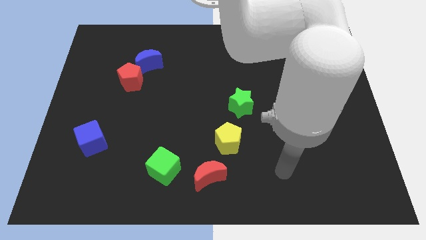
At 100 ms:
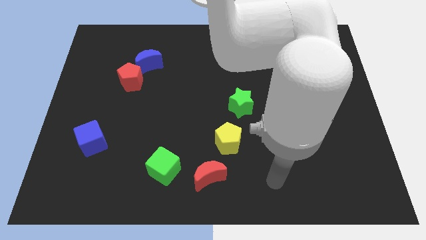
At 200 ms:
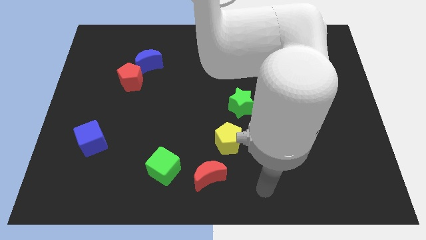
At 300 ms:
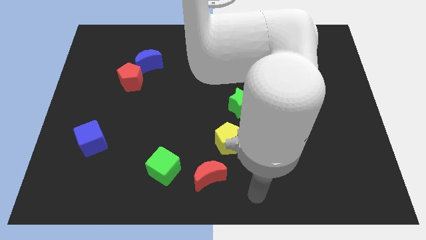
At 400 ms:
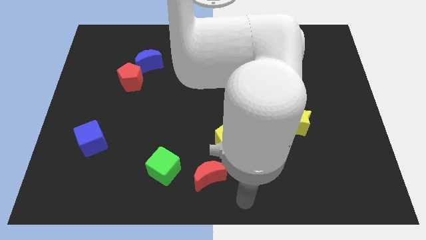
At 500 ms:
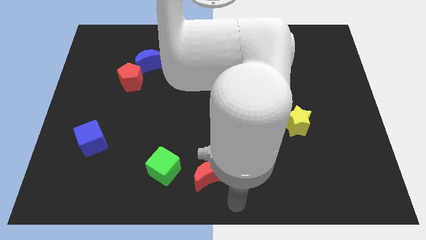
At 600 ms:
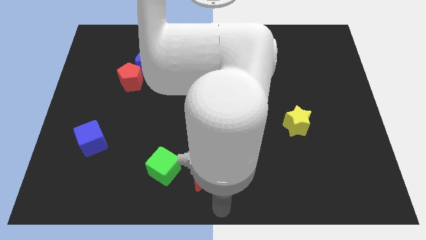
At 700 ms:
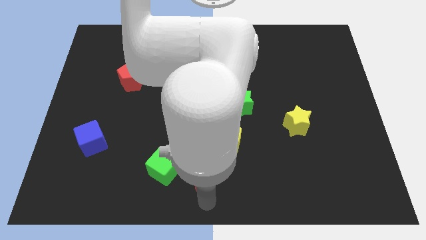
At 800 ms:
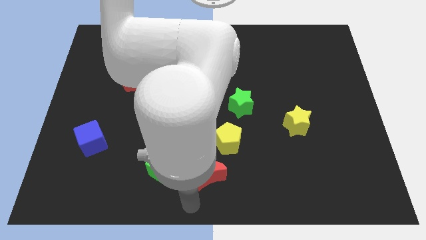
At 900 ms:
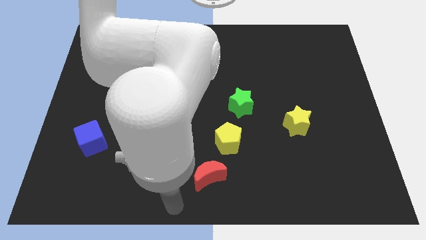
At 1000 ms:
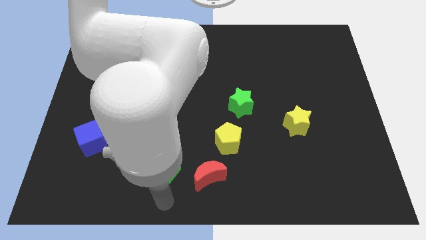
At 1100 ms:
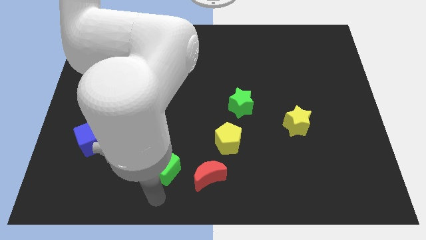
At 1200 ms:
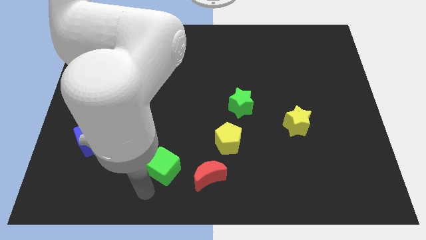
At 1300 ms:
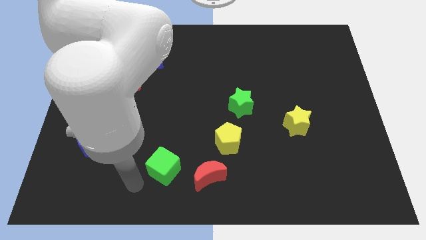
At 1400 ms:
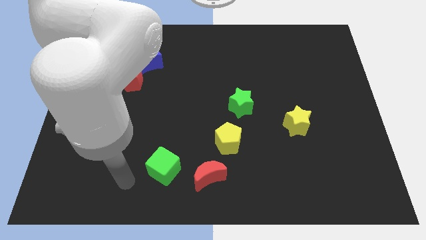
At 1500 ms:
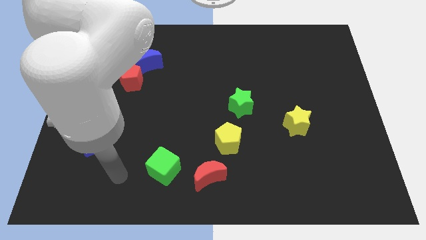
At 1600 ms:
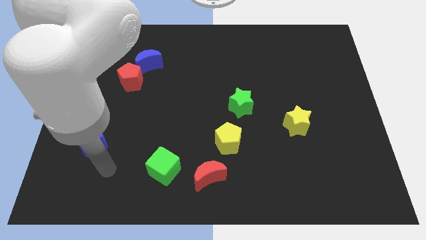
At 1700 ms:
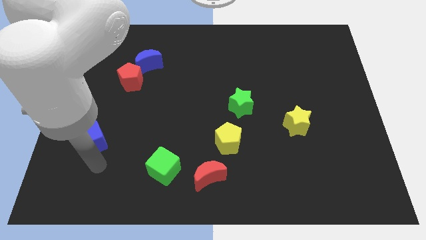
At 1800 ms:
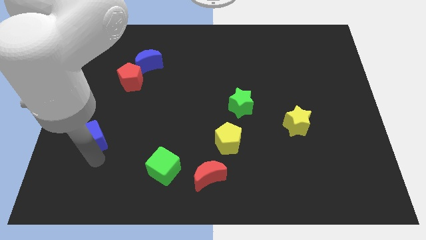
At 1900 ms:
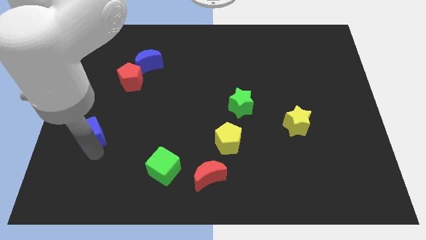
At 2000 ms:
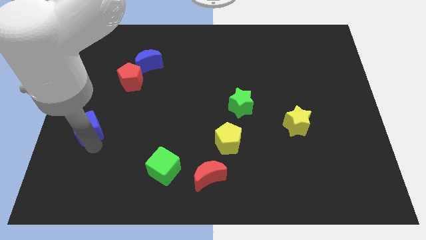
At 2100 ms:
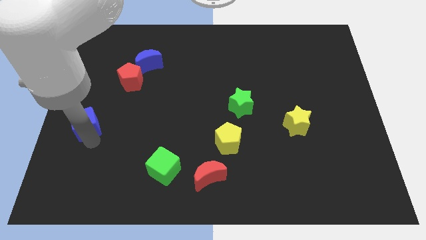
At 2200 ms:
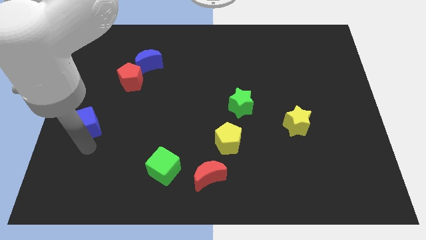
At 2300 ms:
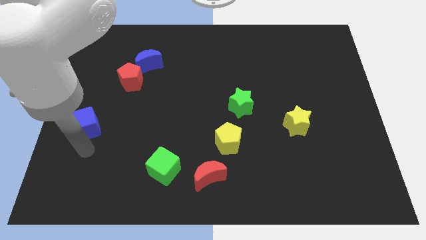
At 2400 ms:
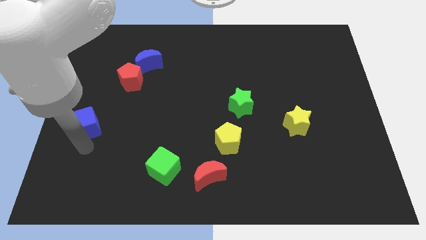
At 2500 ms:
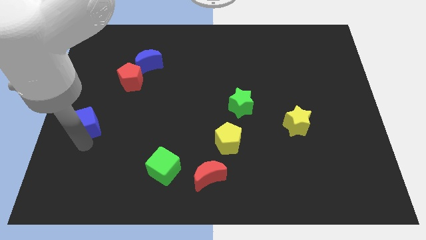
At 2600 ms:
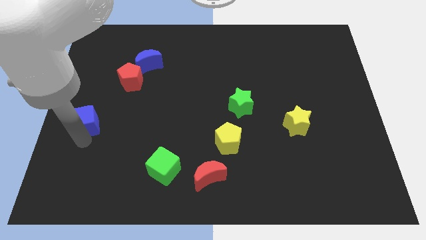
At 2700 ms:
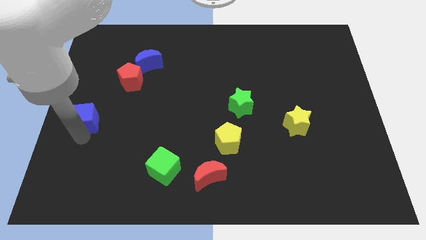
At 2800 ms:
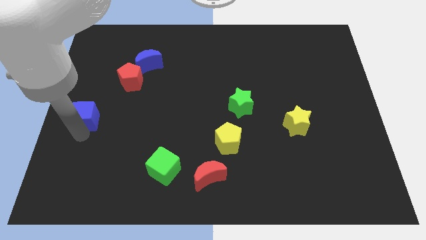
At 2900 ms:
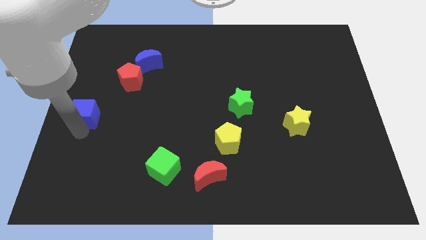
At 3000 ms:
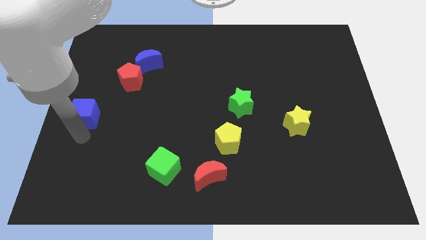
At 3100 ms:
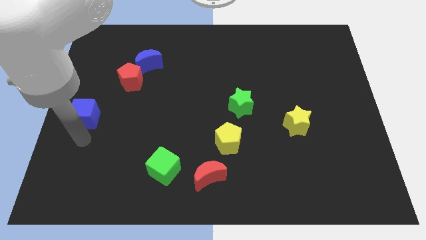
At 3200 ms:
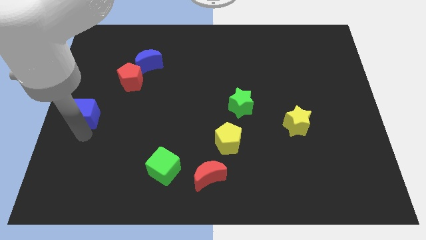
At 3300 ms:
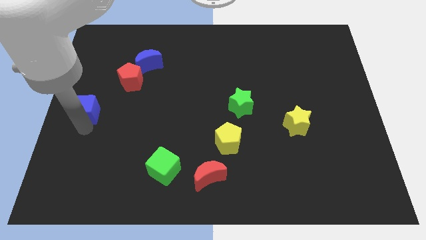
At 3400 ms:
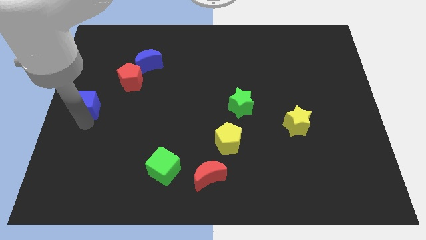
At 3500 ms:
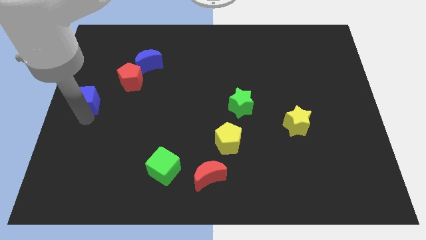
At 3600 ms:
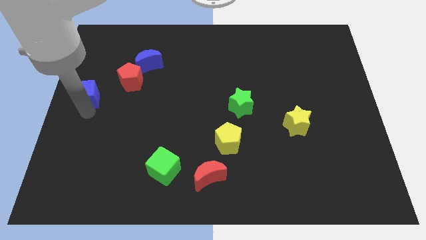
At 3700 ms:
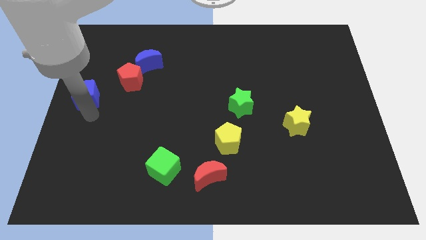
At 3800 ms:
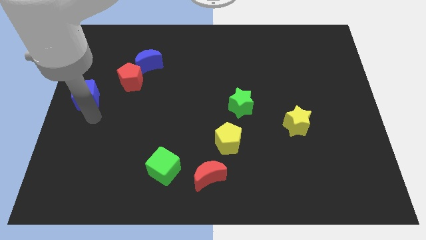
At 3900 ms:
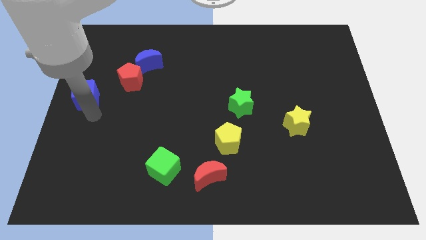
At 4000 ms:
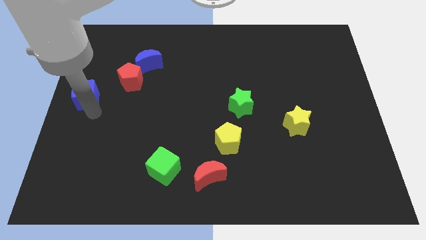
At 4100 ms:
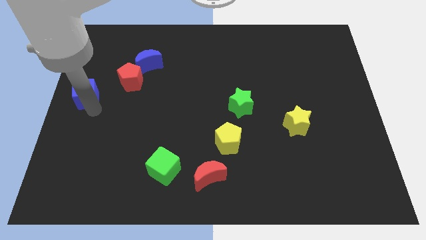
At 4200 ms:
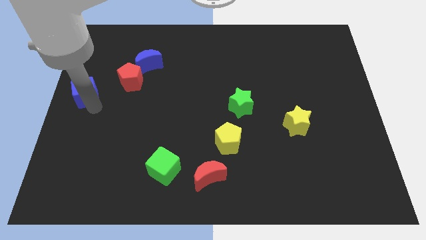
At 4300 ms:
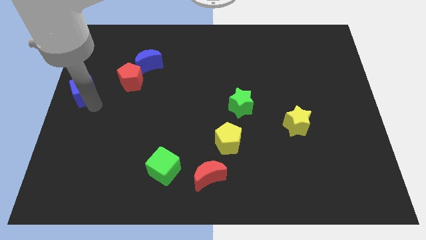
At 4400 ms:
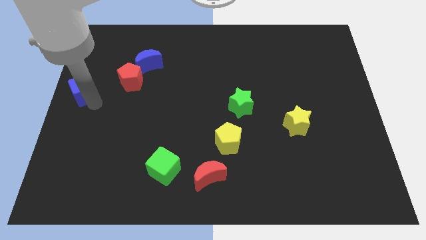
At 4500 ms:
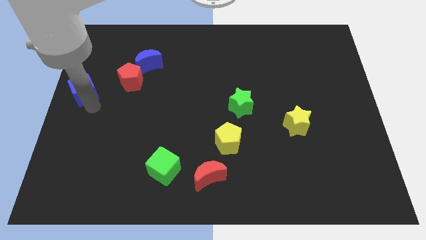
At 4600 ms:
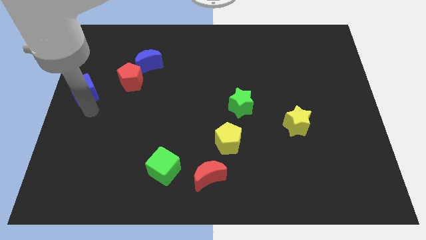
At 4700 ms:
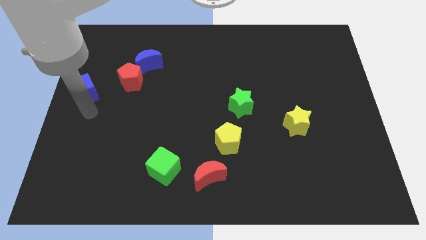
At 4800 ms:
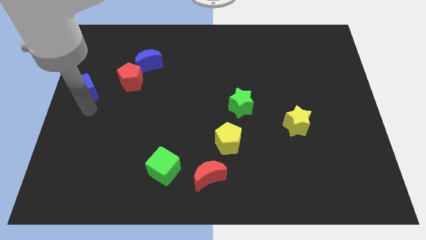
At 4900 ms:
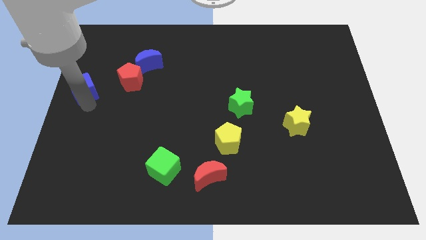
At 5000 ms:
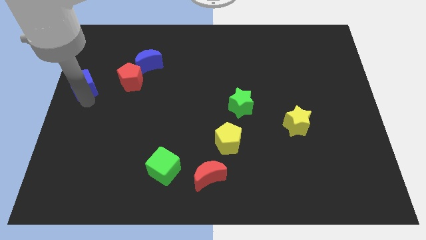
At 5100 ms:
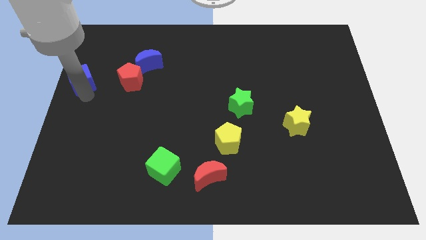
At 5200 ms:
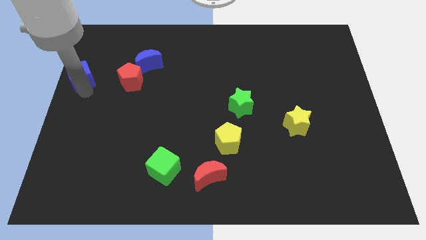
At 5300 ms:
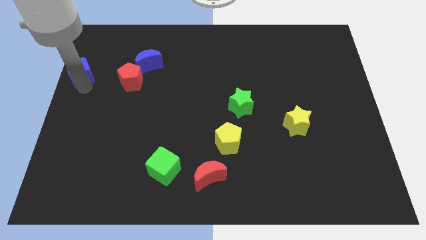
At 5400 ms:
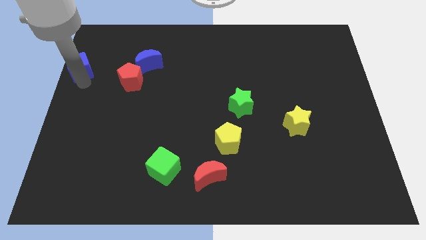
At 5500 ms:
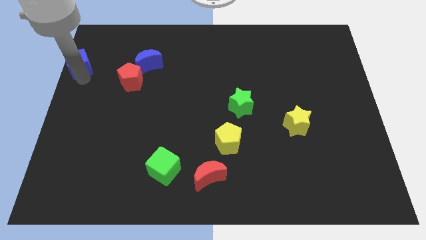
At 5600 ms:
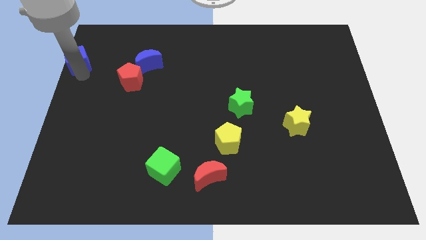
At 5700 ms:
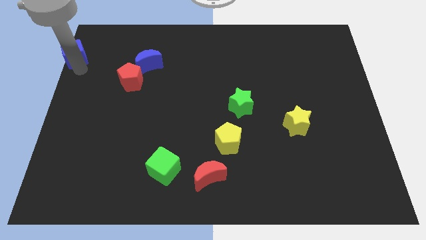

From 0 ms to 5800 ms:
move the blue cube to the upper left corner

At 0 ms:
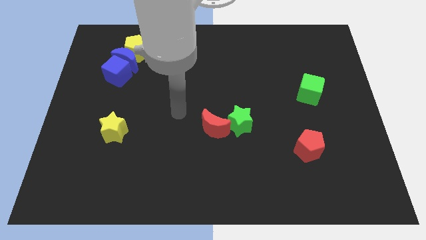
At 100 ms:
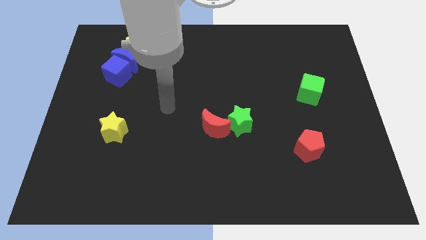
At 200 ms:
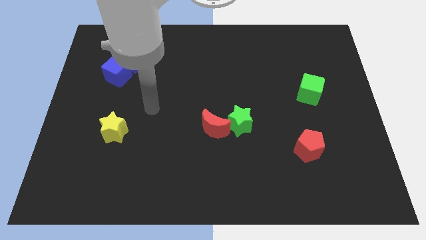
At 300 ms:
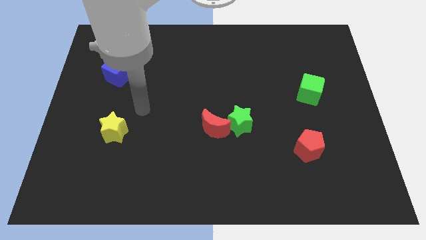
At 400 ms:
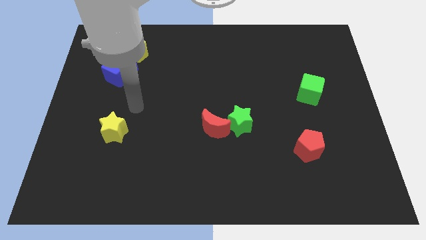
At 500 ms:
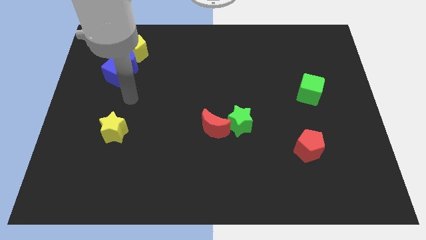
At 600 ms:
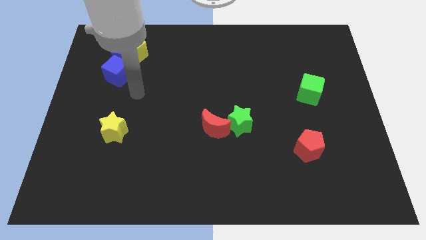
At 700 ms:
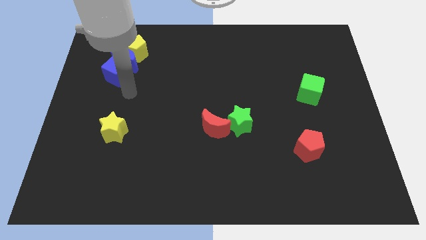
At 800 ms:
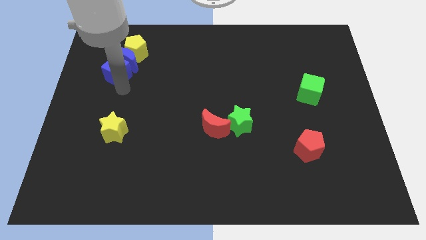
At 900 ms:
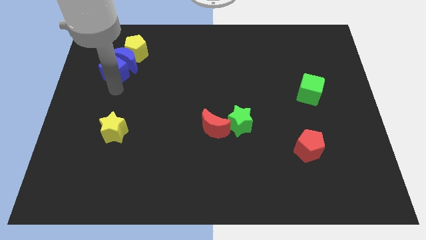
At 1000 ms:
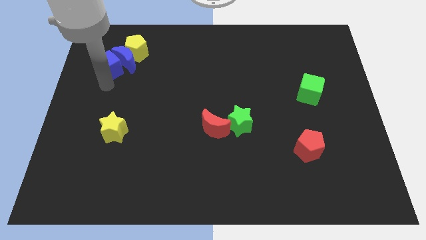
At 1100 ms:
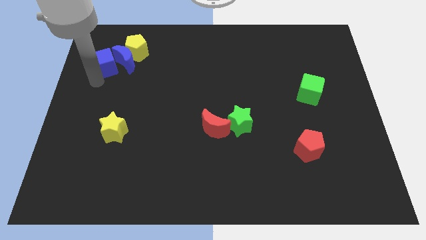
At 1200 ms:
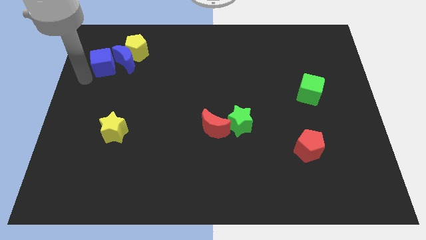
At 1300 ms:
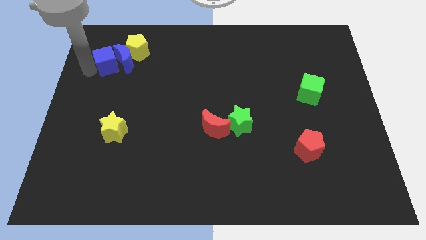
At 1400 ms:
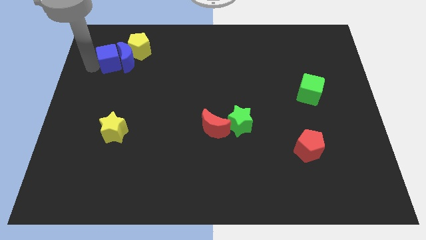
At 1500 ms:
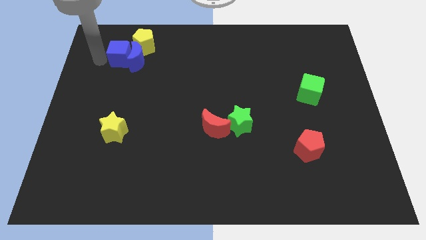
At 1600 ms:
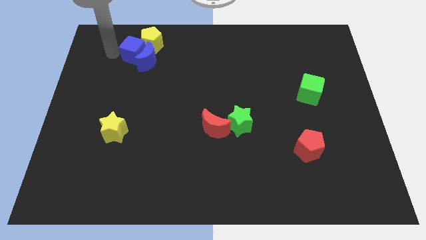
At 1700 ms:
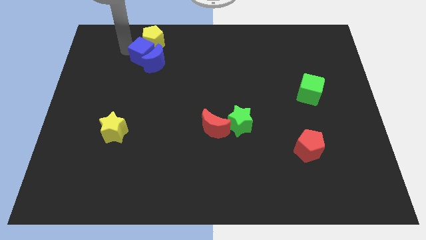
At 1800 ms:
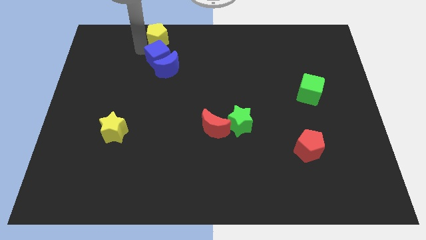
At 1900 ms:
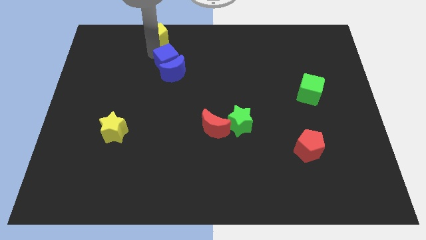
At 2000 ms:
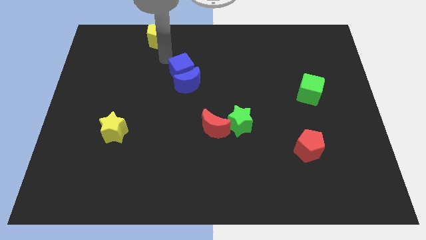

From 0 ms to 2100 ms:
put the blue moon to the middle
